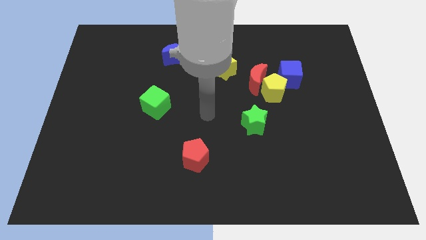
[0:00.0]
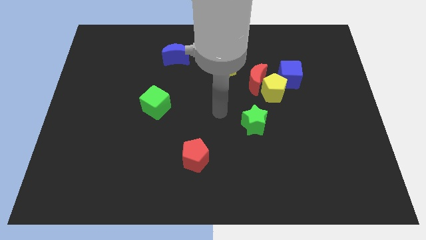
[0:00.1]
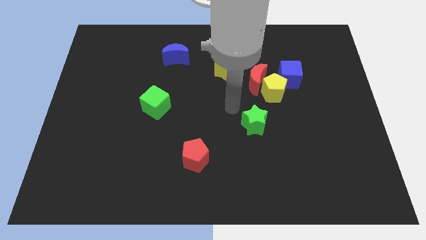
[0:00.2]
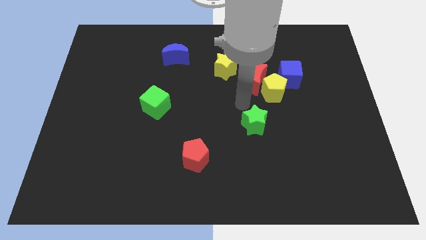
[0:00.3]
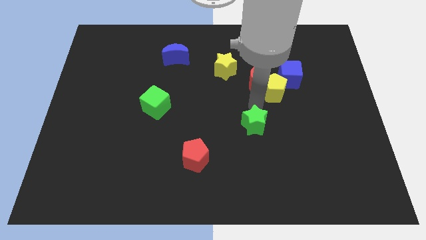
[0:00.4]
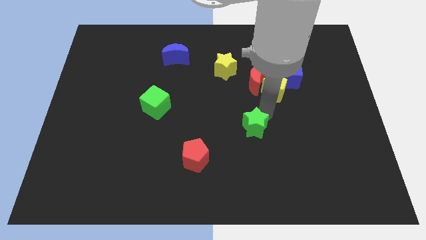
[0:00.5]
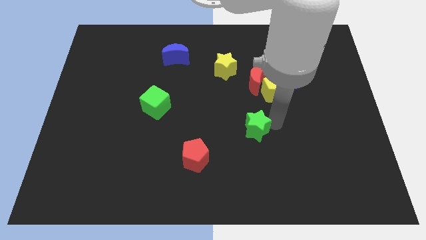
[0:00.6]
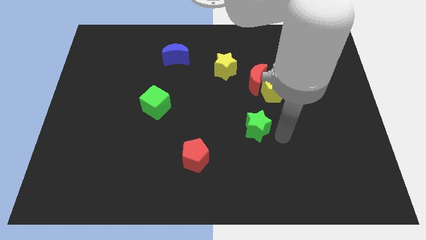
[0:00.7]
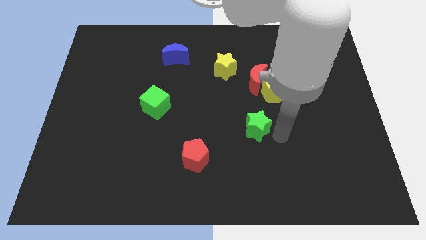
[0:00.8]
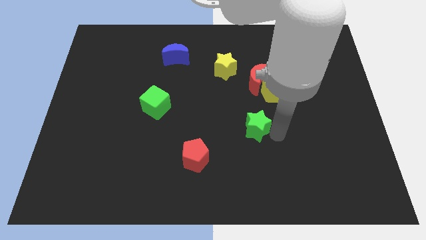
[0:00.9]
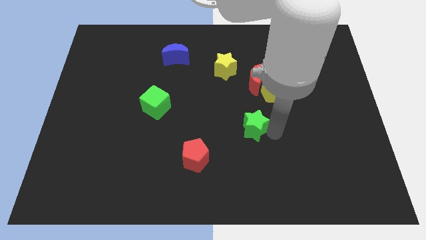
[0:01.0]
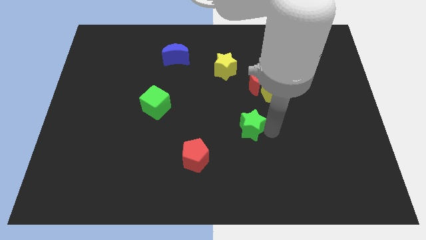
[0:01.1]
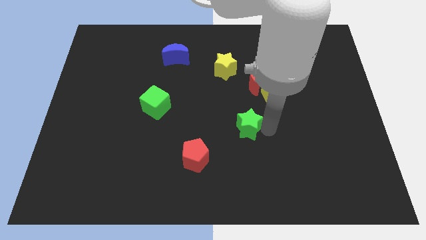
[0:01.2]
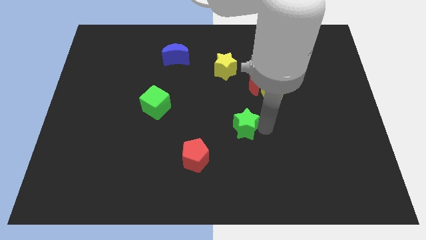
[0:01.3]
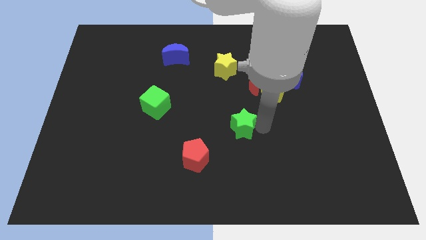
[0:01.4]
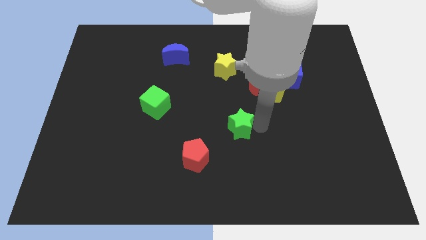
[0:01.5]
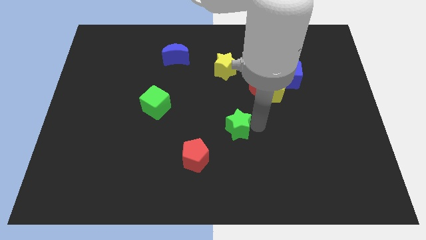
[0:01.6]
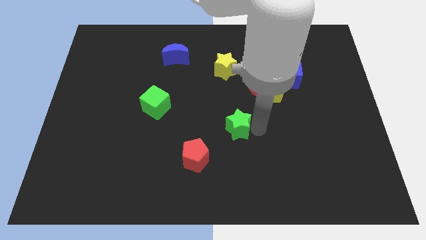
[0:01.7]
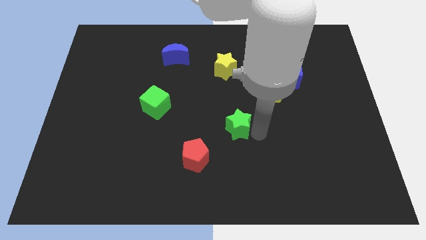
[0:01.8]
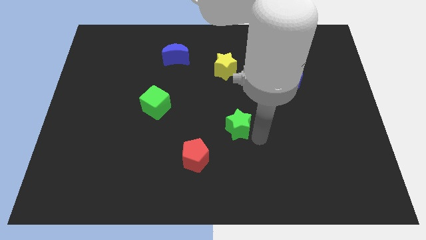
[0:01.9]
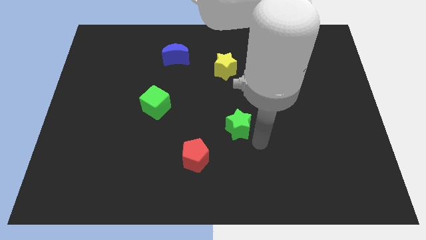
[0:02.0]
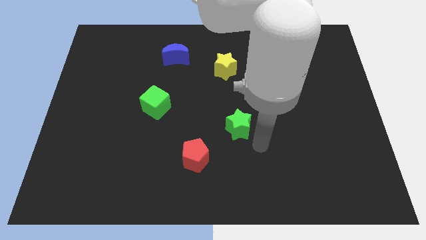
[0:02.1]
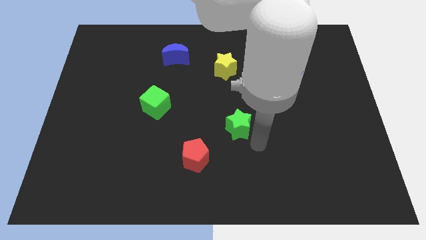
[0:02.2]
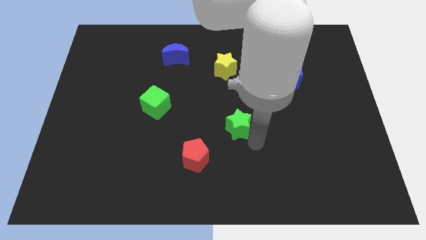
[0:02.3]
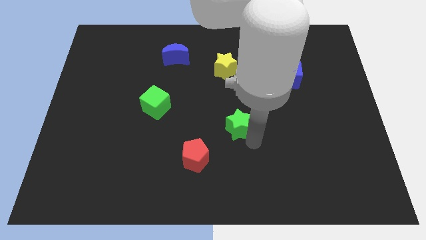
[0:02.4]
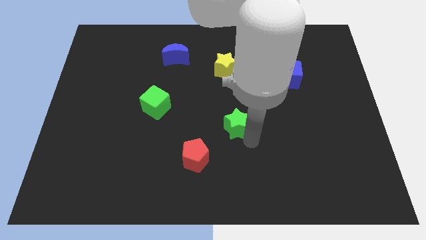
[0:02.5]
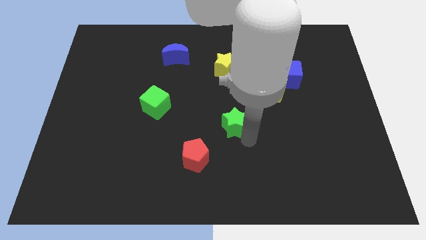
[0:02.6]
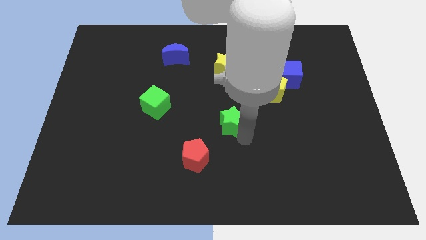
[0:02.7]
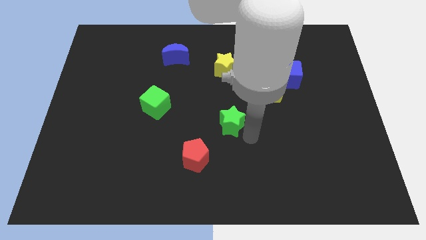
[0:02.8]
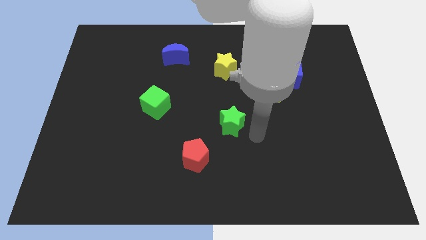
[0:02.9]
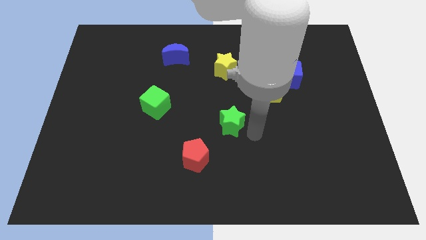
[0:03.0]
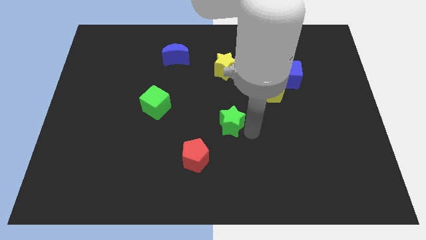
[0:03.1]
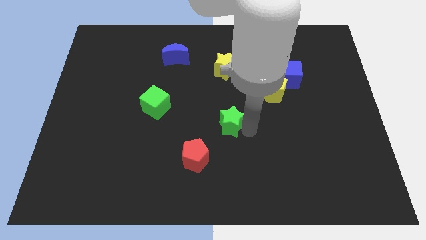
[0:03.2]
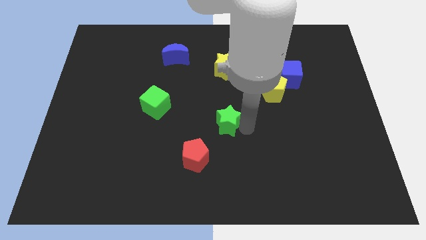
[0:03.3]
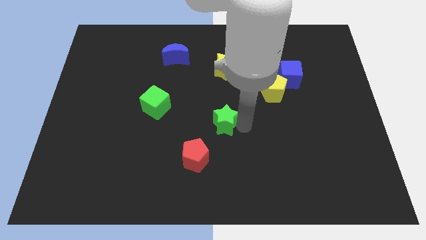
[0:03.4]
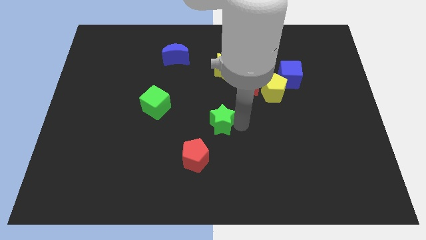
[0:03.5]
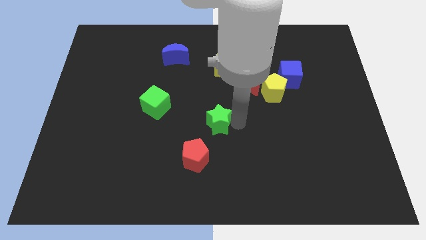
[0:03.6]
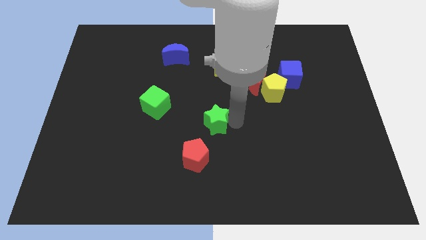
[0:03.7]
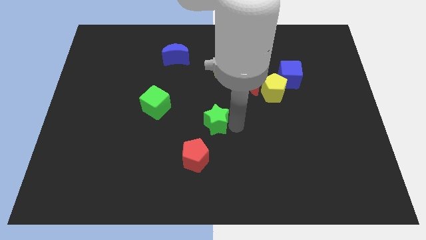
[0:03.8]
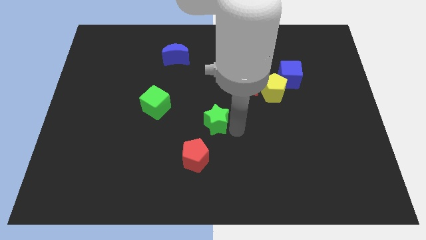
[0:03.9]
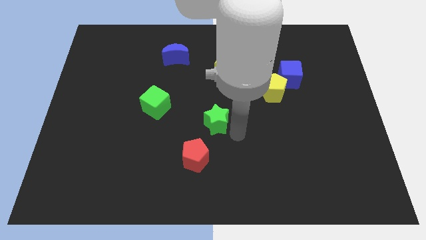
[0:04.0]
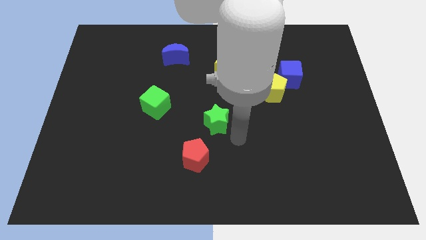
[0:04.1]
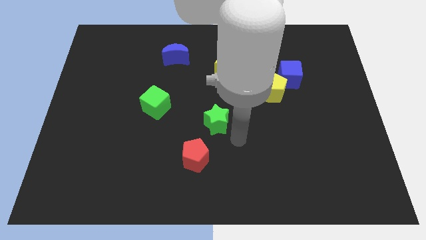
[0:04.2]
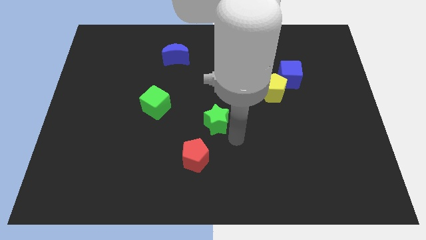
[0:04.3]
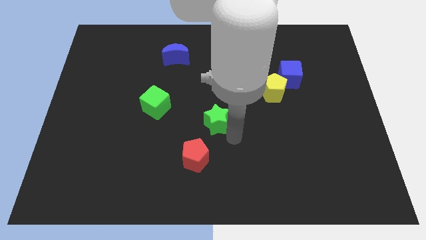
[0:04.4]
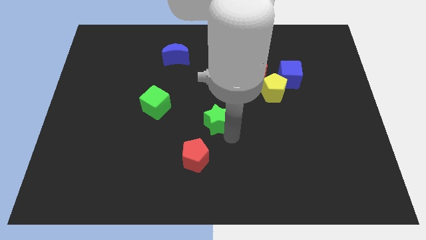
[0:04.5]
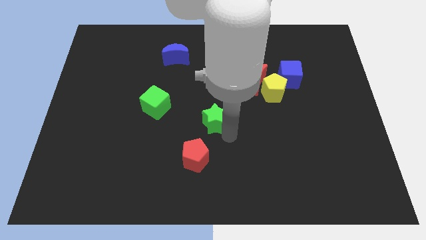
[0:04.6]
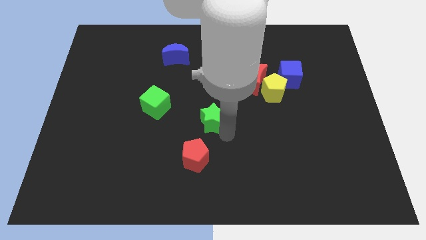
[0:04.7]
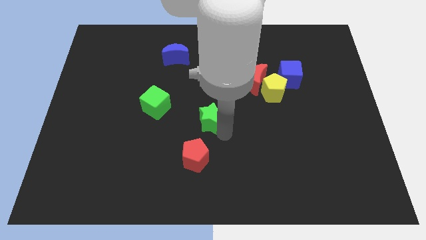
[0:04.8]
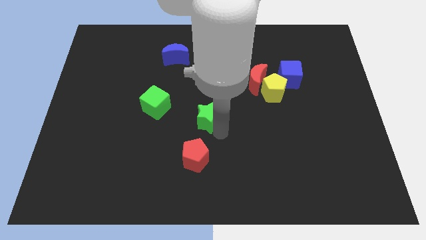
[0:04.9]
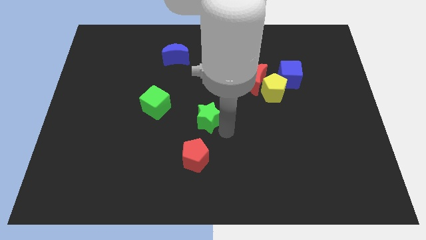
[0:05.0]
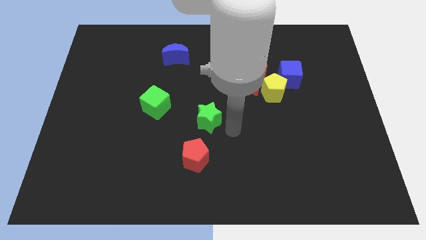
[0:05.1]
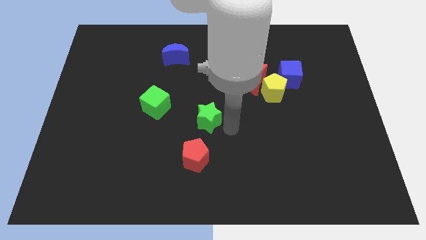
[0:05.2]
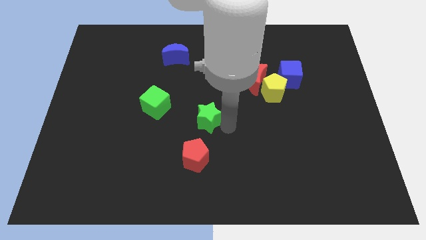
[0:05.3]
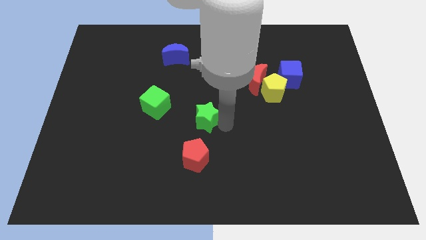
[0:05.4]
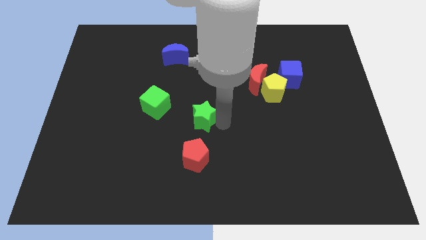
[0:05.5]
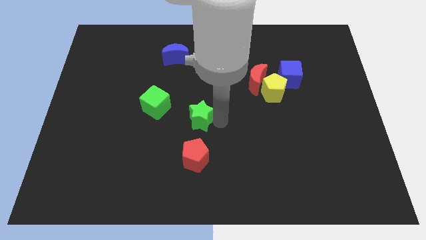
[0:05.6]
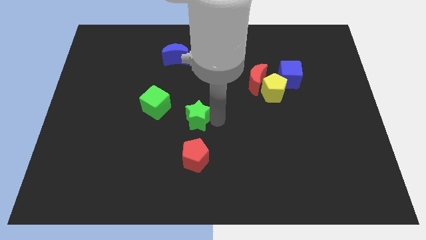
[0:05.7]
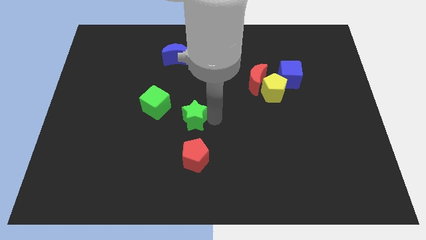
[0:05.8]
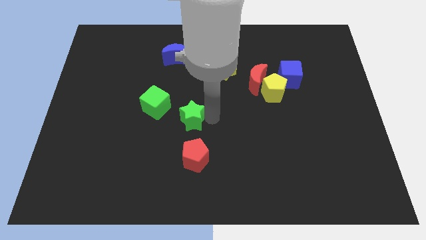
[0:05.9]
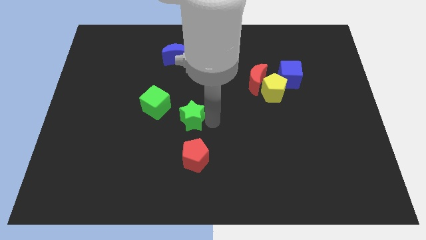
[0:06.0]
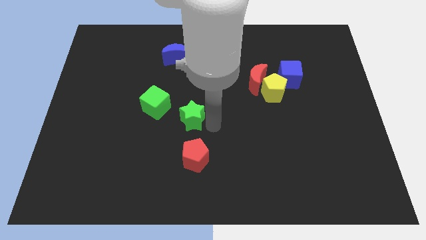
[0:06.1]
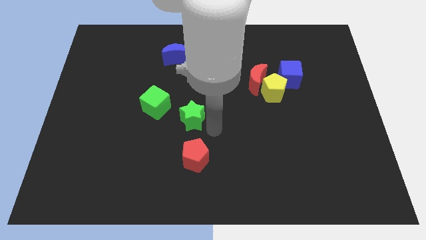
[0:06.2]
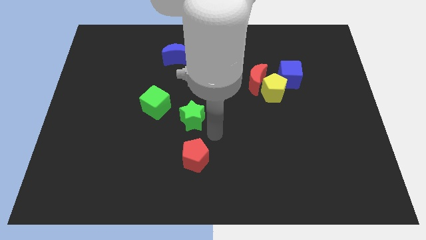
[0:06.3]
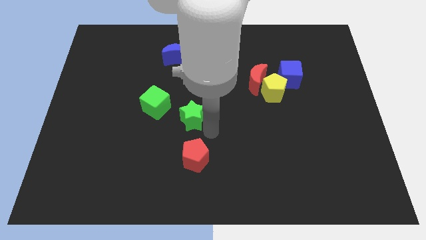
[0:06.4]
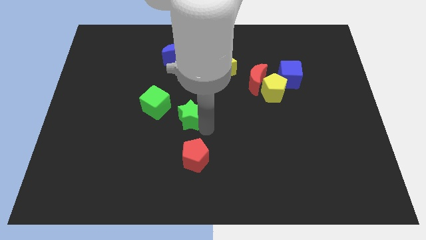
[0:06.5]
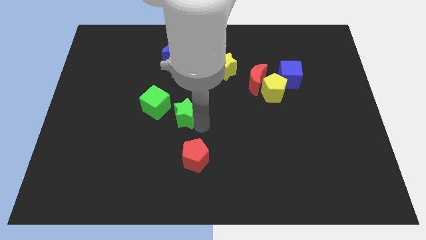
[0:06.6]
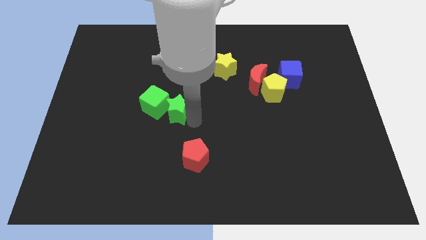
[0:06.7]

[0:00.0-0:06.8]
move the green star next to the green cube
